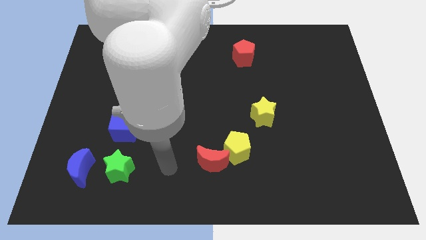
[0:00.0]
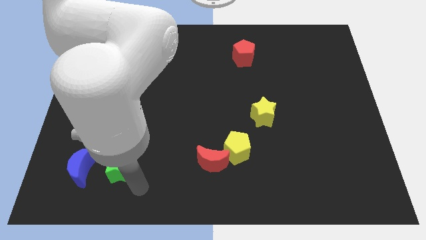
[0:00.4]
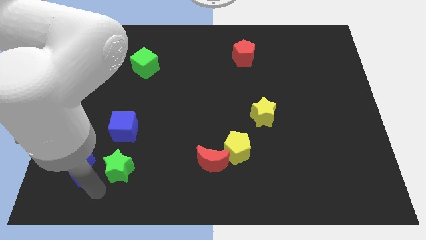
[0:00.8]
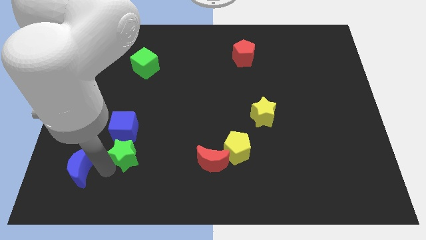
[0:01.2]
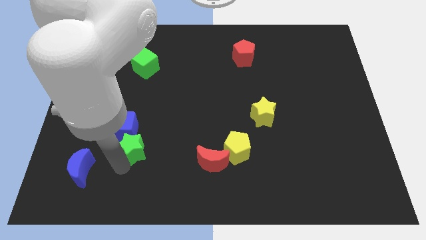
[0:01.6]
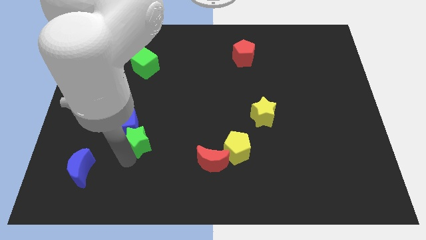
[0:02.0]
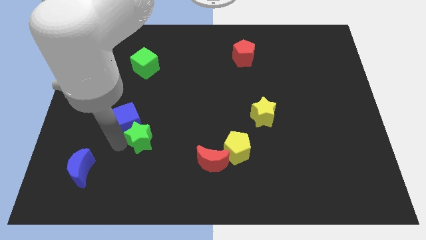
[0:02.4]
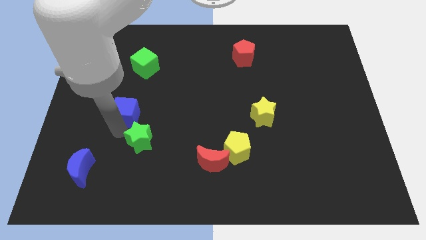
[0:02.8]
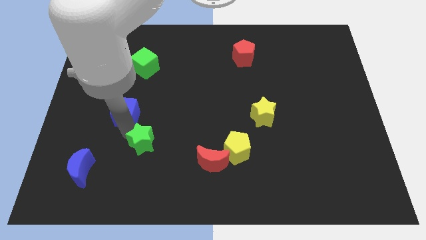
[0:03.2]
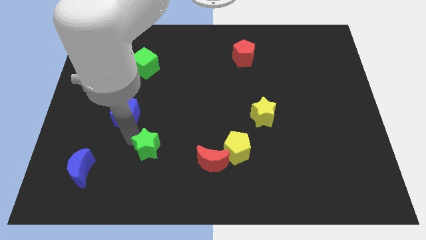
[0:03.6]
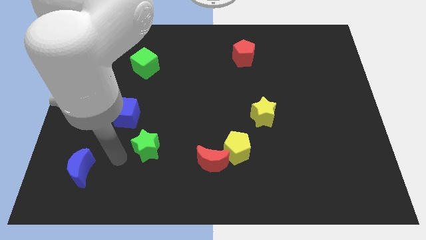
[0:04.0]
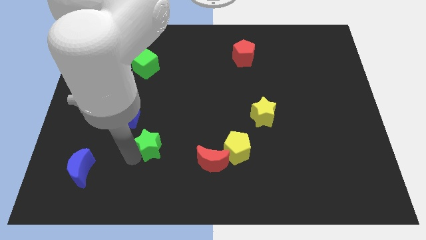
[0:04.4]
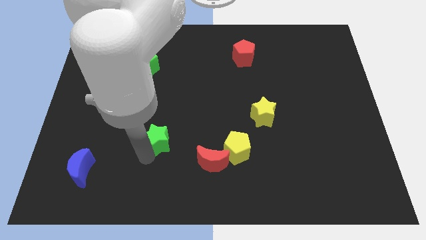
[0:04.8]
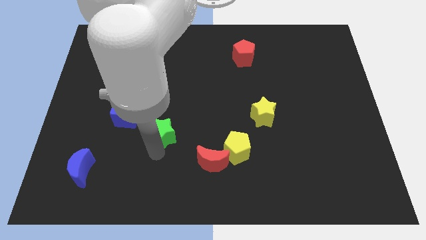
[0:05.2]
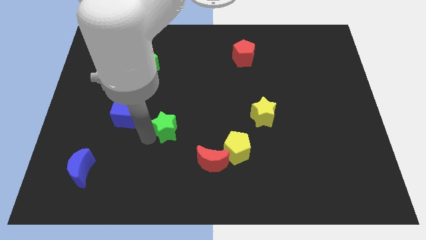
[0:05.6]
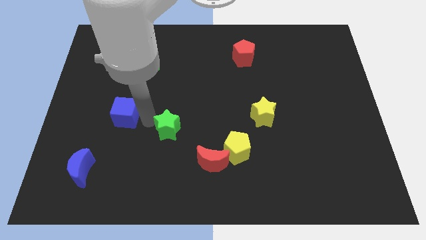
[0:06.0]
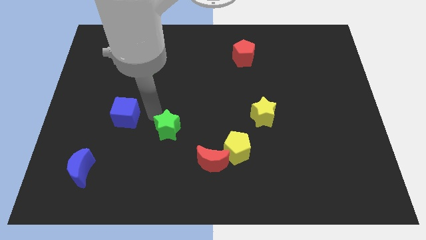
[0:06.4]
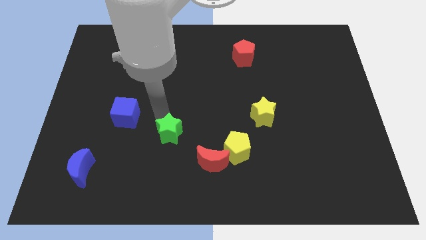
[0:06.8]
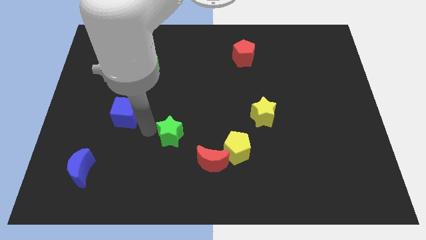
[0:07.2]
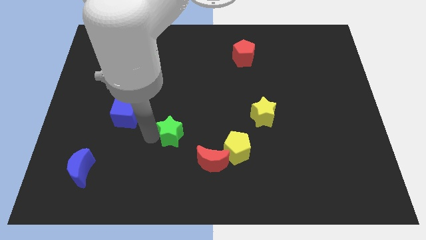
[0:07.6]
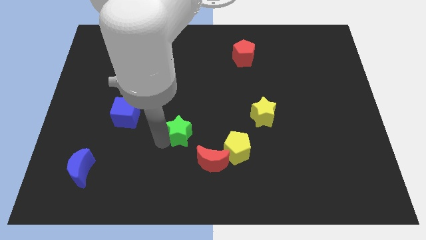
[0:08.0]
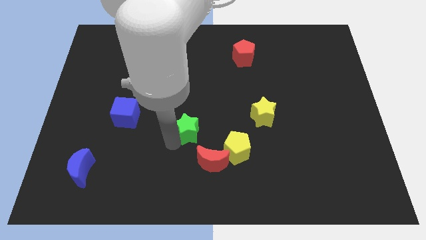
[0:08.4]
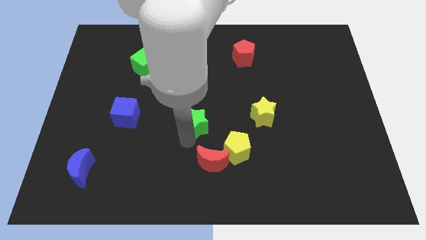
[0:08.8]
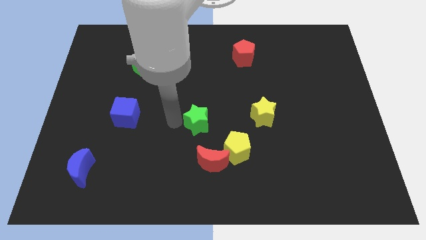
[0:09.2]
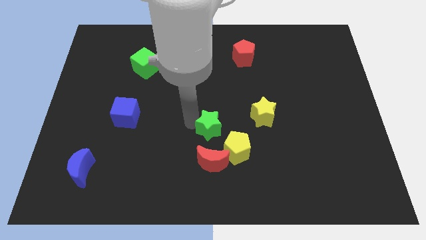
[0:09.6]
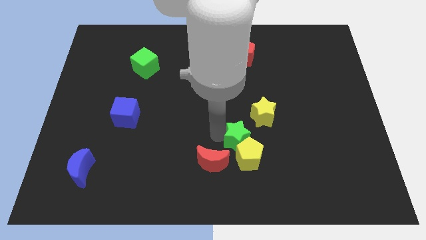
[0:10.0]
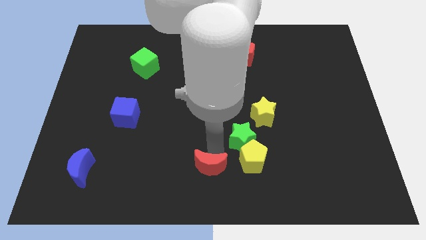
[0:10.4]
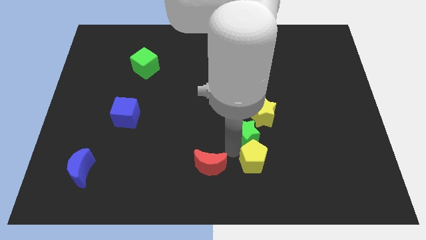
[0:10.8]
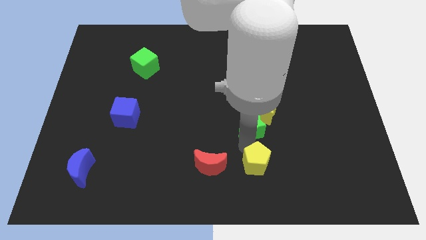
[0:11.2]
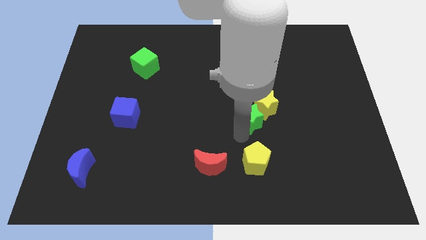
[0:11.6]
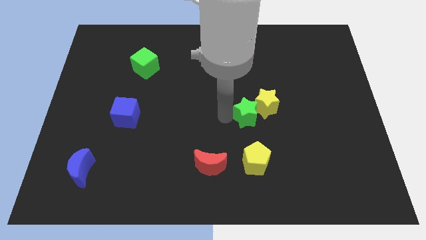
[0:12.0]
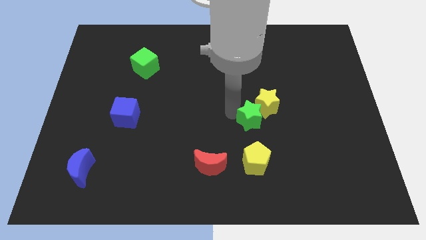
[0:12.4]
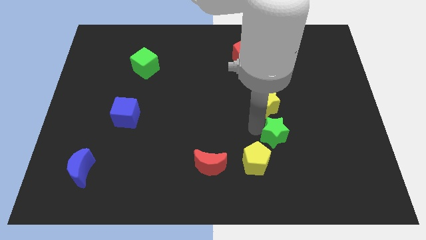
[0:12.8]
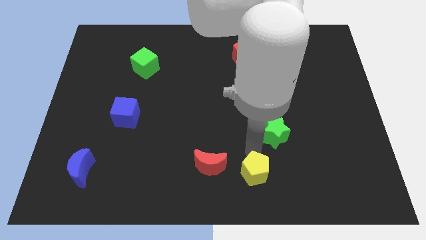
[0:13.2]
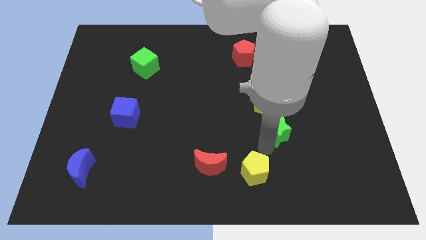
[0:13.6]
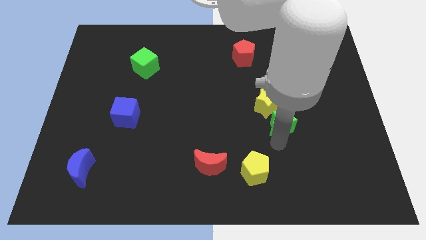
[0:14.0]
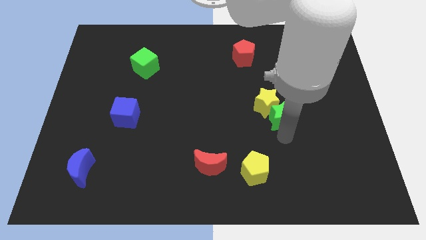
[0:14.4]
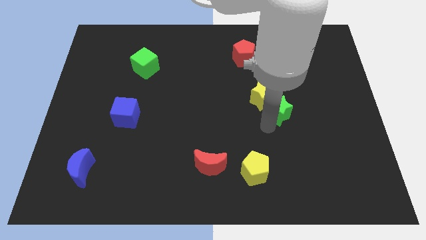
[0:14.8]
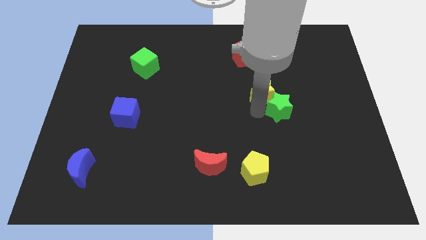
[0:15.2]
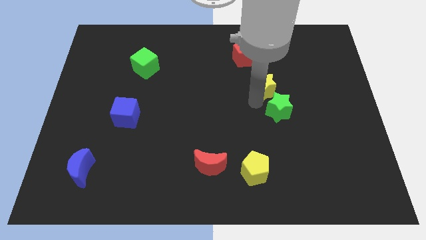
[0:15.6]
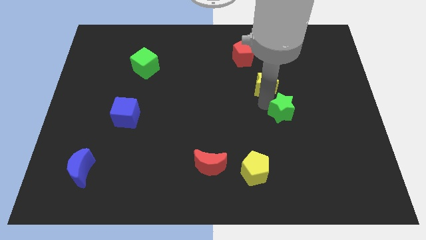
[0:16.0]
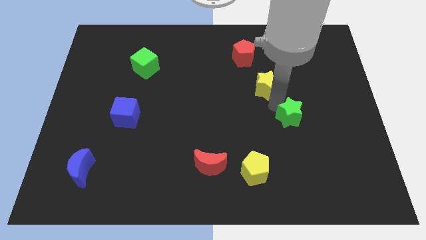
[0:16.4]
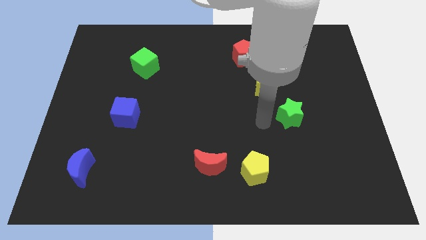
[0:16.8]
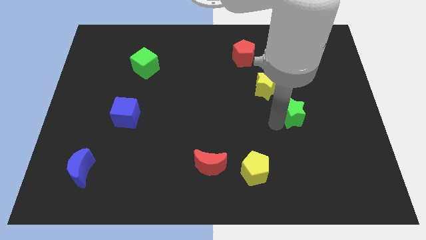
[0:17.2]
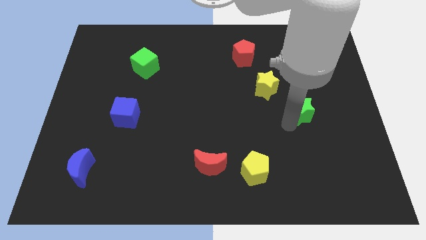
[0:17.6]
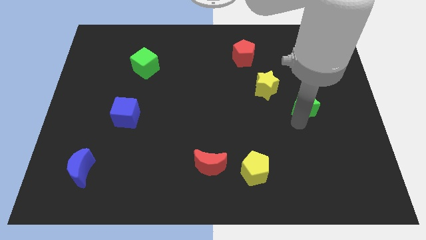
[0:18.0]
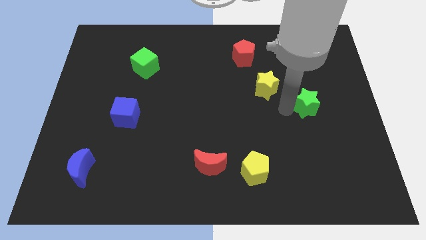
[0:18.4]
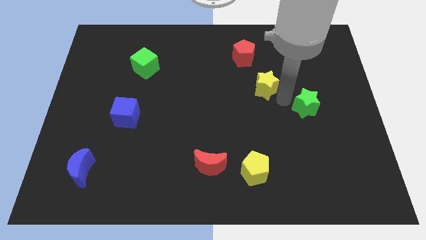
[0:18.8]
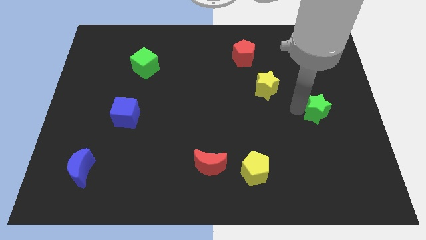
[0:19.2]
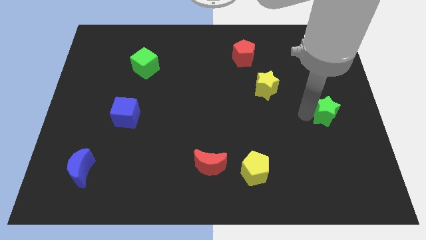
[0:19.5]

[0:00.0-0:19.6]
push the green star to the right side of the board

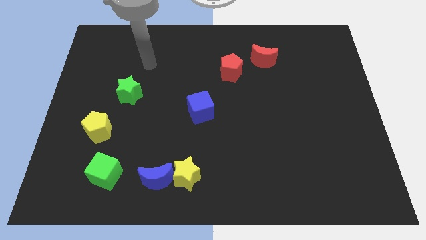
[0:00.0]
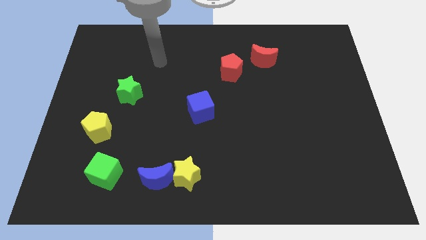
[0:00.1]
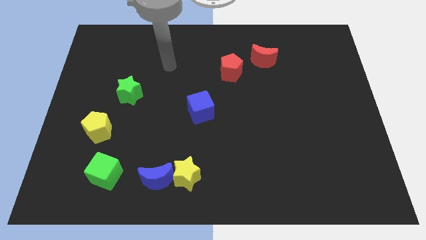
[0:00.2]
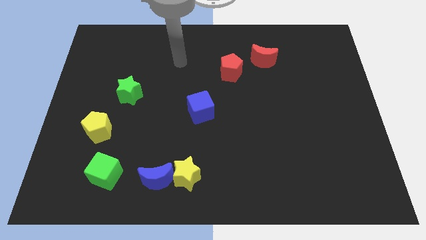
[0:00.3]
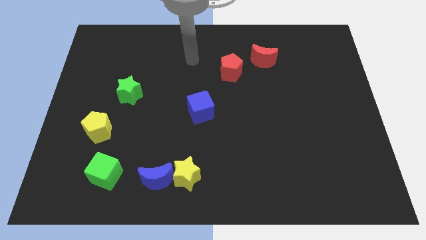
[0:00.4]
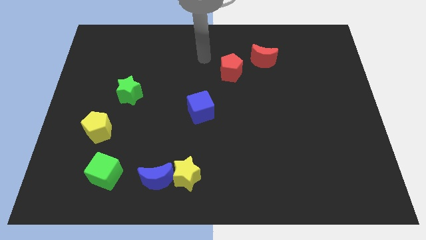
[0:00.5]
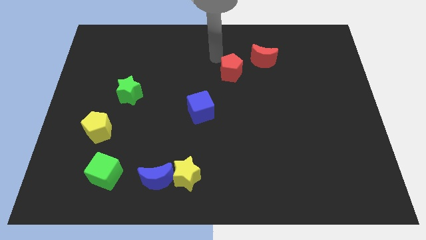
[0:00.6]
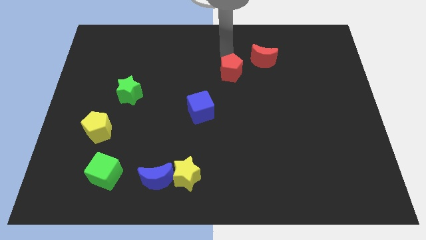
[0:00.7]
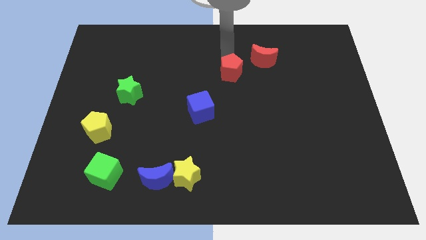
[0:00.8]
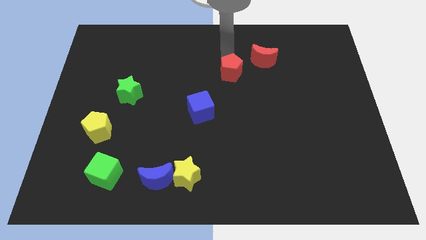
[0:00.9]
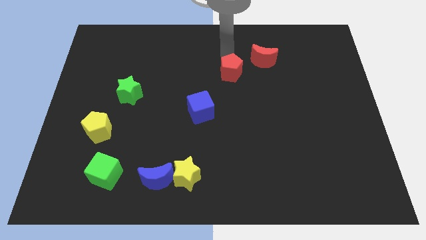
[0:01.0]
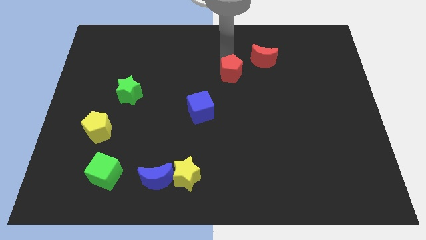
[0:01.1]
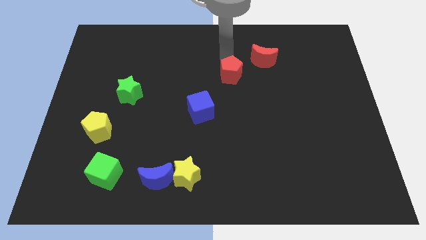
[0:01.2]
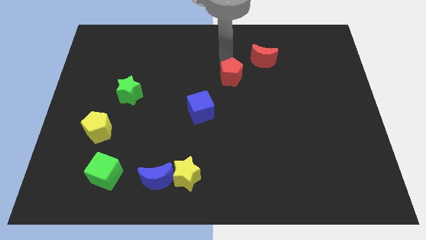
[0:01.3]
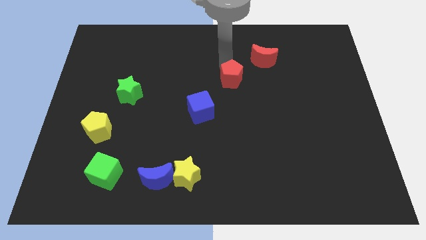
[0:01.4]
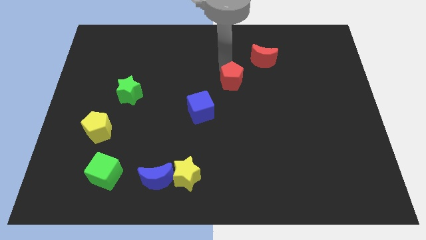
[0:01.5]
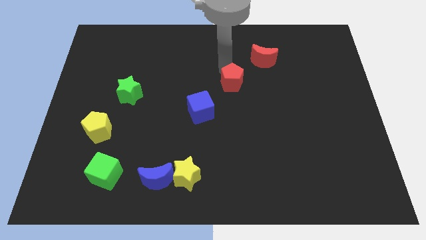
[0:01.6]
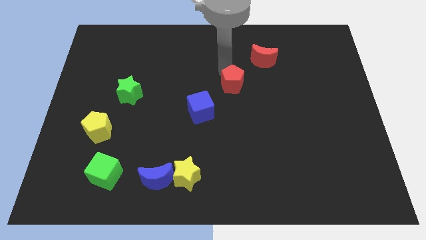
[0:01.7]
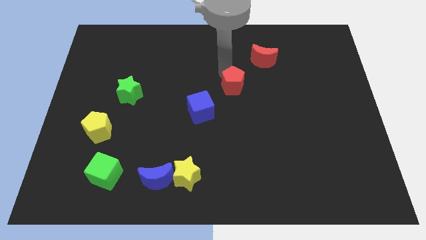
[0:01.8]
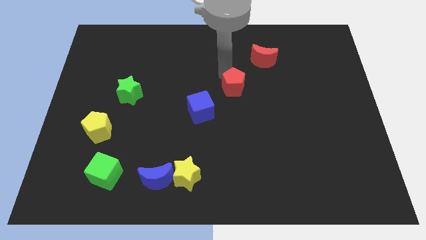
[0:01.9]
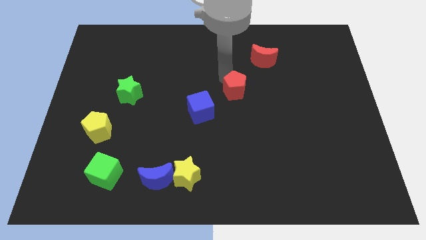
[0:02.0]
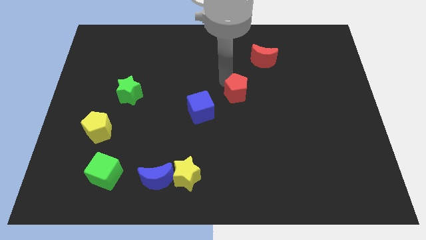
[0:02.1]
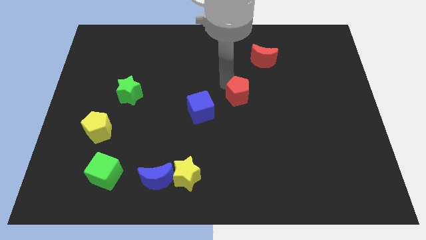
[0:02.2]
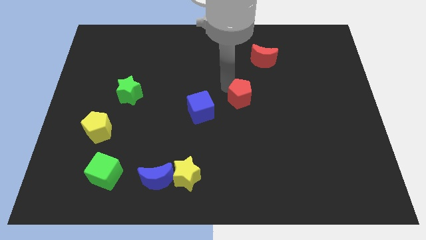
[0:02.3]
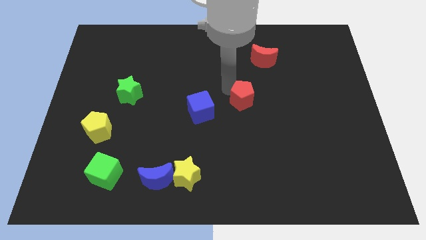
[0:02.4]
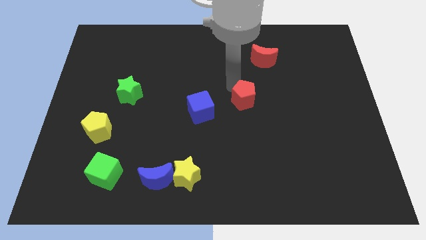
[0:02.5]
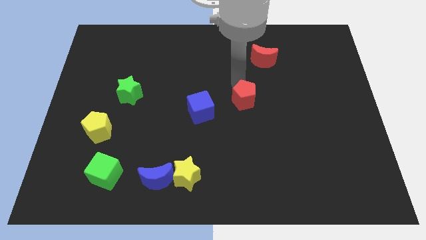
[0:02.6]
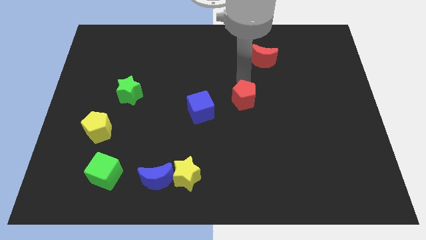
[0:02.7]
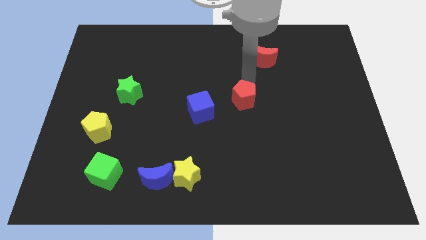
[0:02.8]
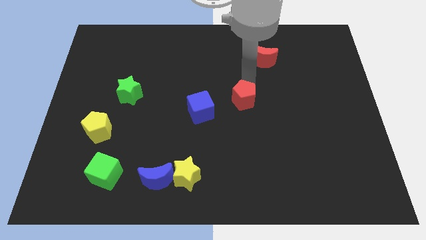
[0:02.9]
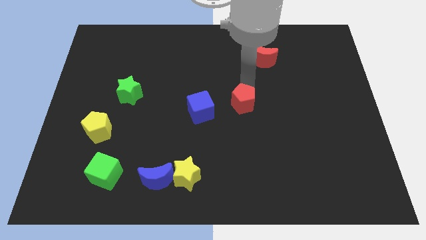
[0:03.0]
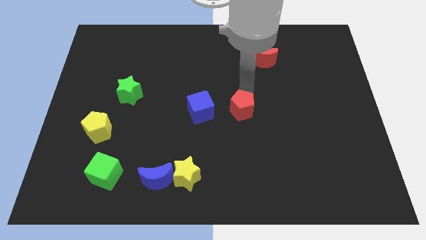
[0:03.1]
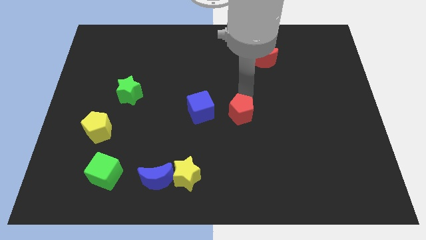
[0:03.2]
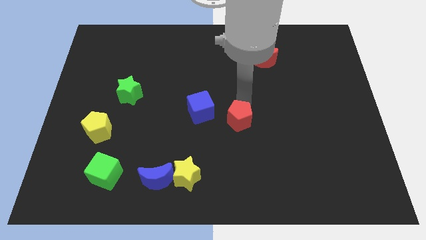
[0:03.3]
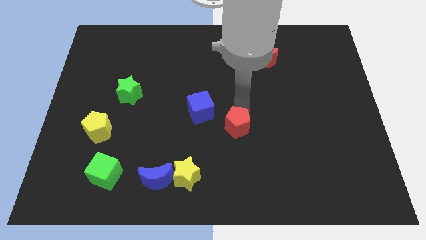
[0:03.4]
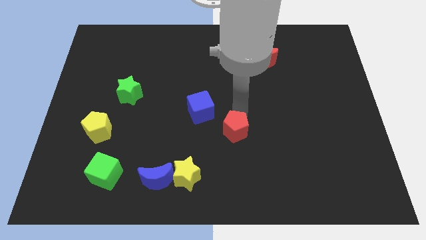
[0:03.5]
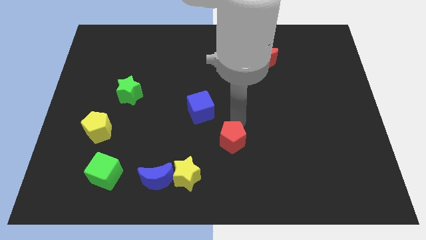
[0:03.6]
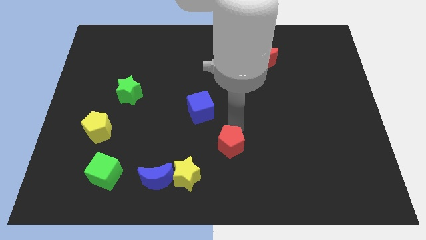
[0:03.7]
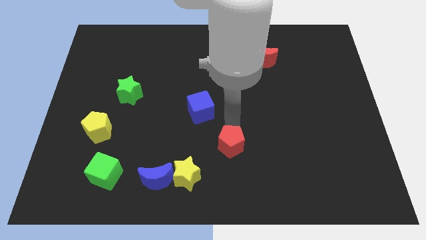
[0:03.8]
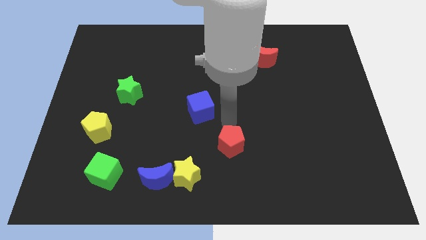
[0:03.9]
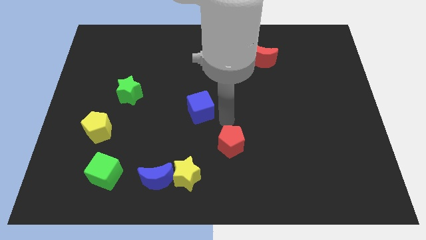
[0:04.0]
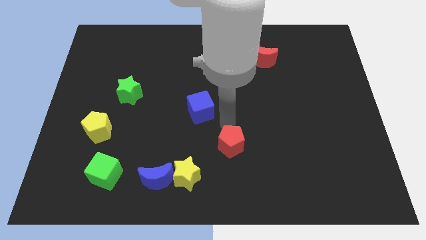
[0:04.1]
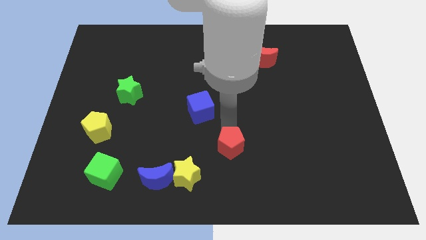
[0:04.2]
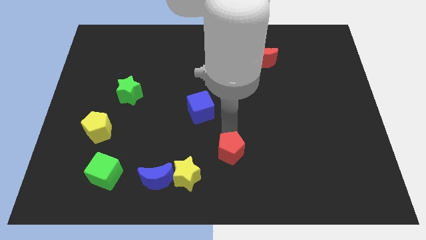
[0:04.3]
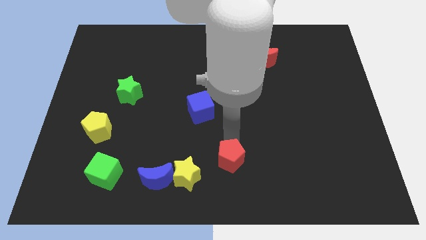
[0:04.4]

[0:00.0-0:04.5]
slide the red pentagon to the bottom side
